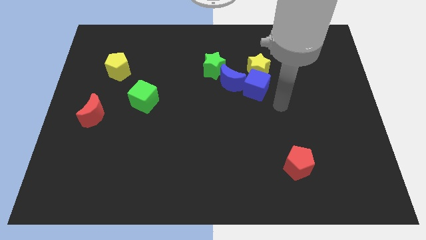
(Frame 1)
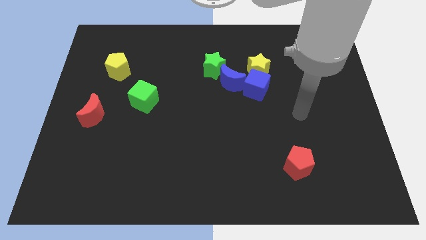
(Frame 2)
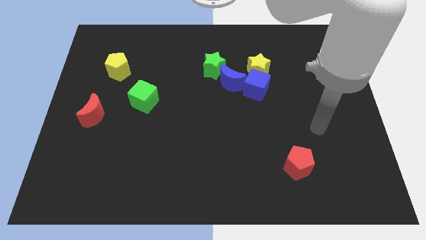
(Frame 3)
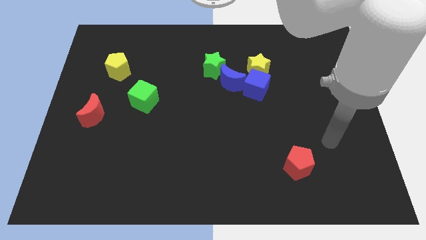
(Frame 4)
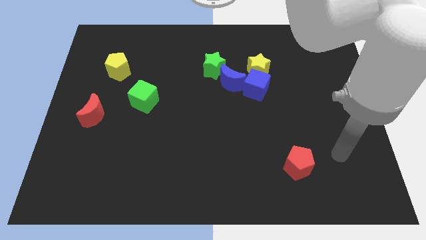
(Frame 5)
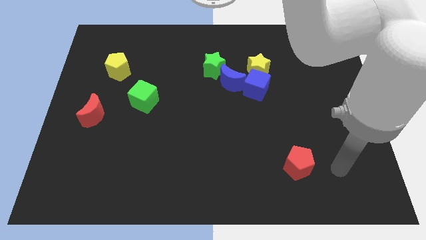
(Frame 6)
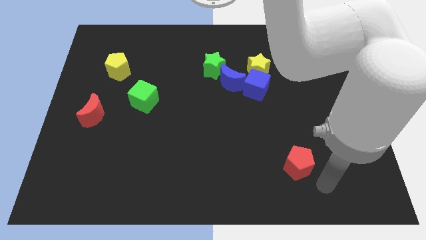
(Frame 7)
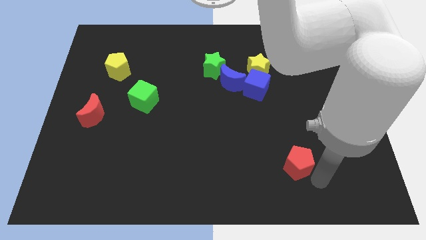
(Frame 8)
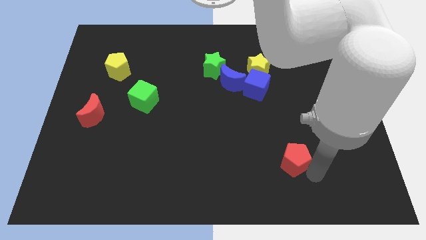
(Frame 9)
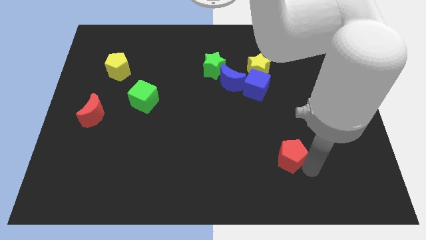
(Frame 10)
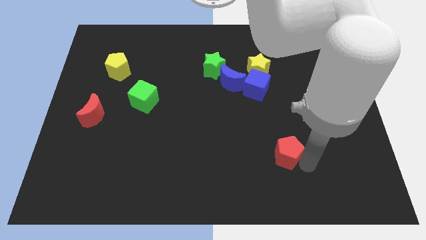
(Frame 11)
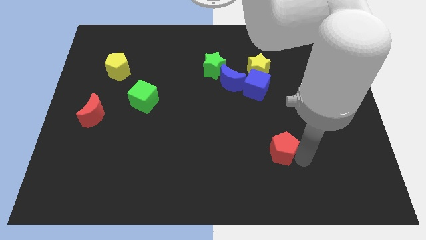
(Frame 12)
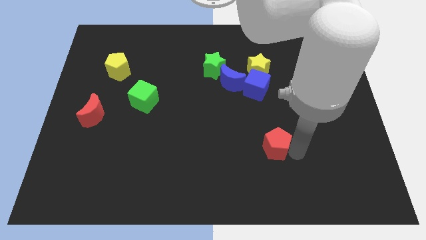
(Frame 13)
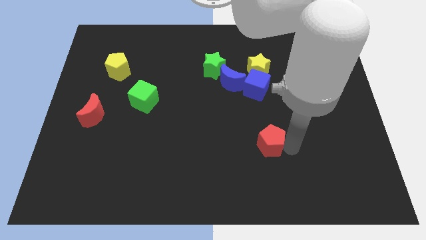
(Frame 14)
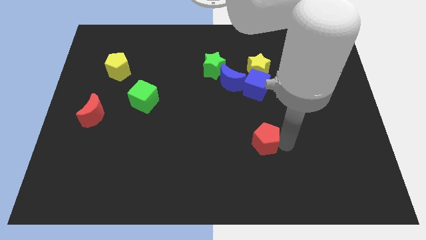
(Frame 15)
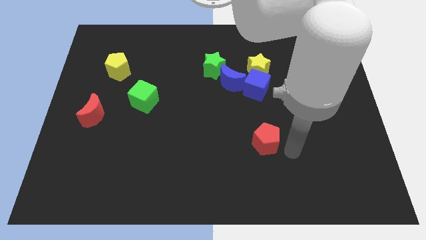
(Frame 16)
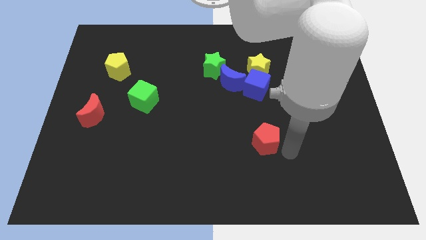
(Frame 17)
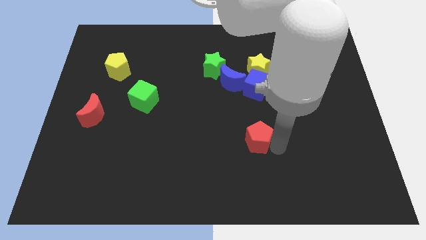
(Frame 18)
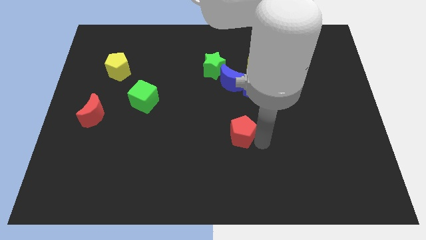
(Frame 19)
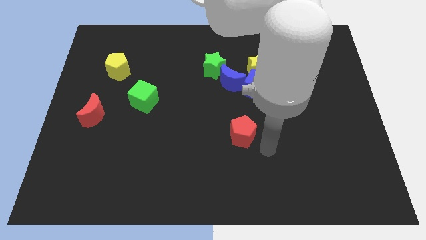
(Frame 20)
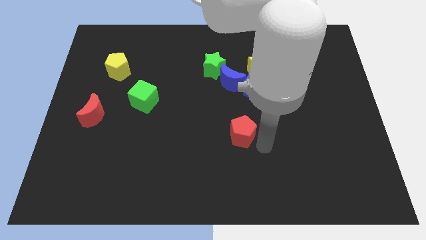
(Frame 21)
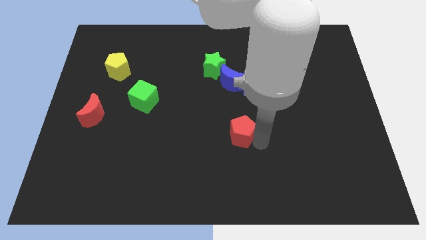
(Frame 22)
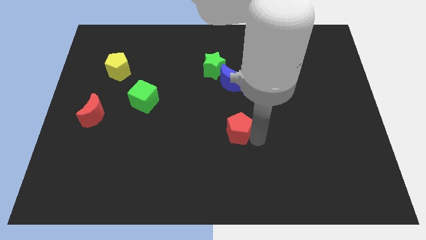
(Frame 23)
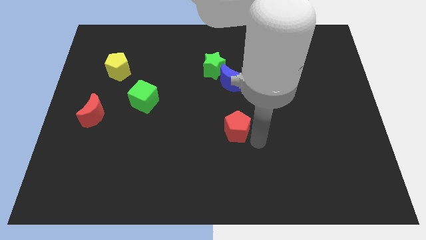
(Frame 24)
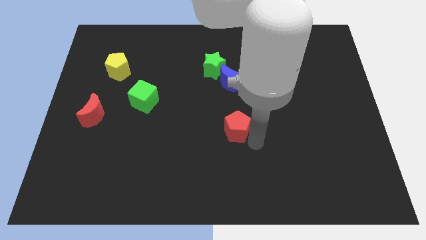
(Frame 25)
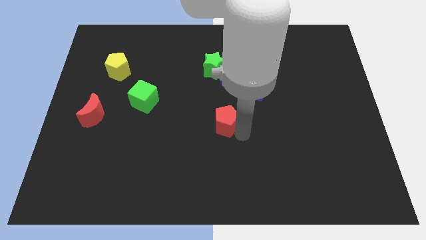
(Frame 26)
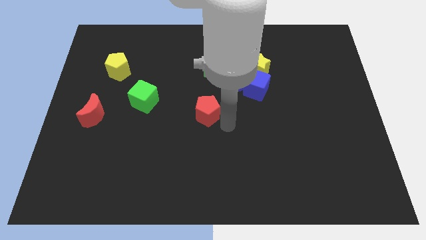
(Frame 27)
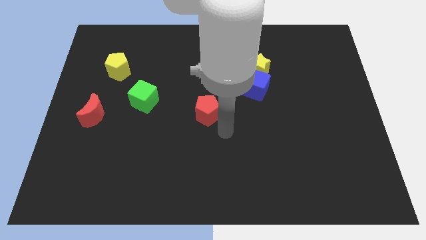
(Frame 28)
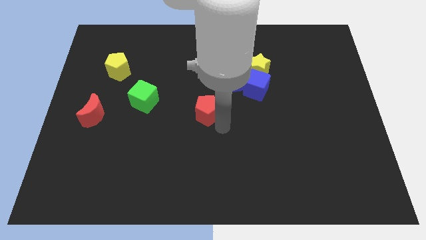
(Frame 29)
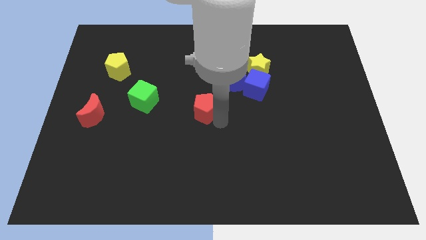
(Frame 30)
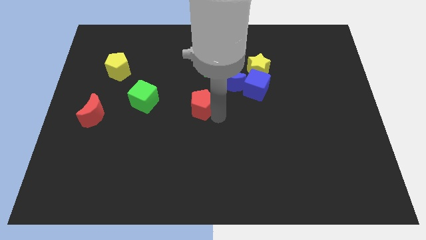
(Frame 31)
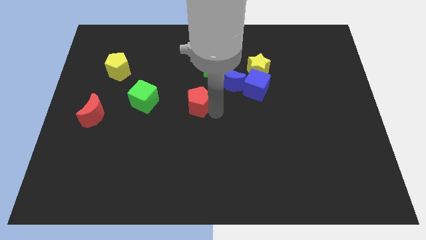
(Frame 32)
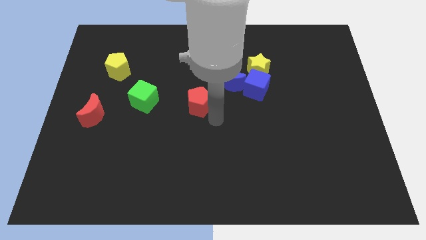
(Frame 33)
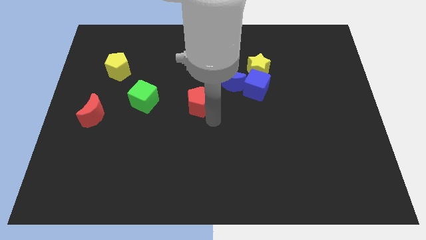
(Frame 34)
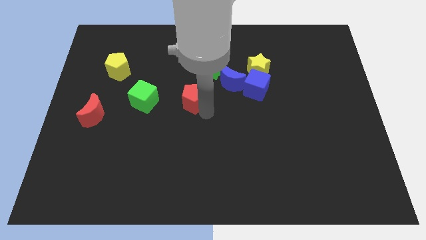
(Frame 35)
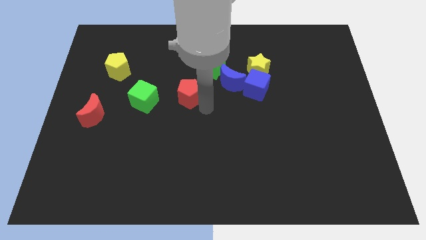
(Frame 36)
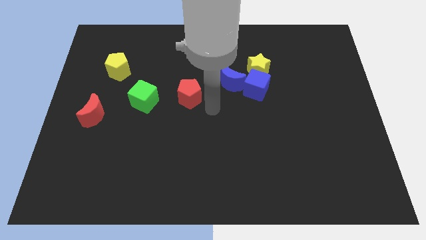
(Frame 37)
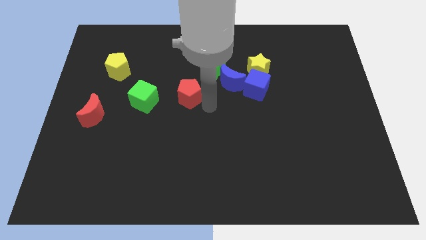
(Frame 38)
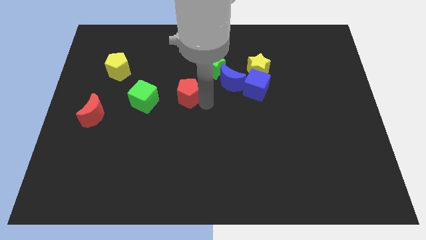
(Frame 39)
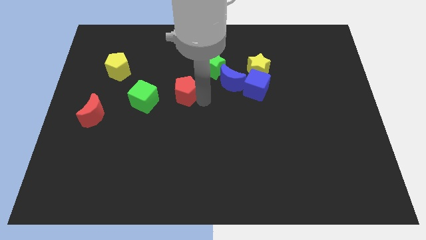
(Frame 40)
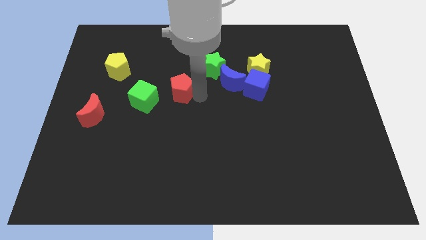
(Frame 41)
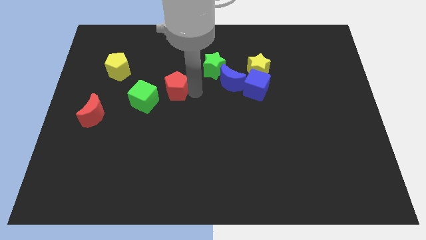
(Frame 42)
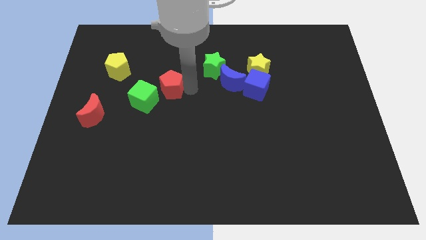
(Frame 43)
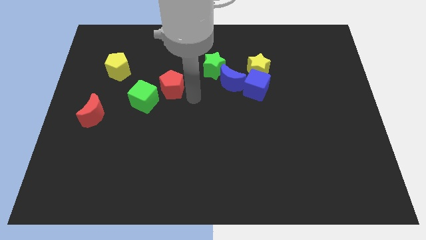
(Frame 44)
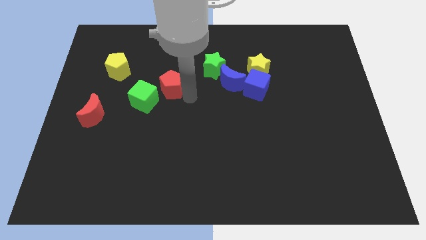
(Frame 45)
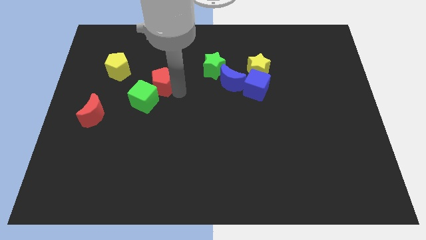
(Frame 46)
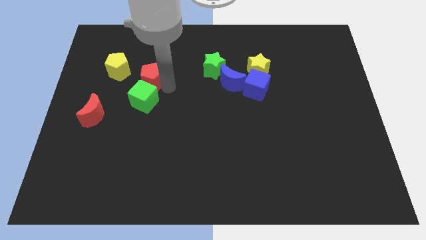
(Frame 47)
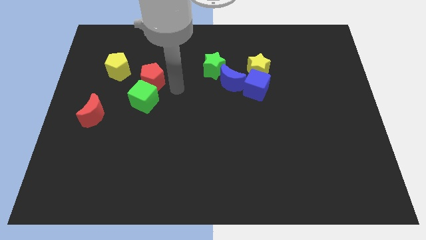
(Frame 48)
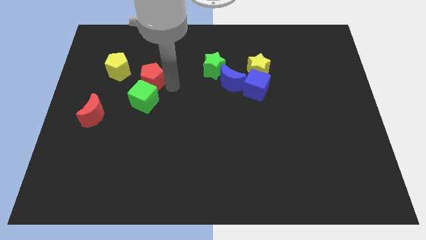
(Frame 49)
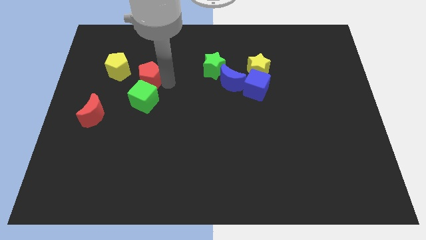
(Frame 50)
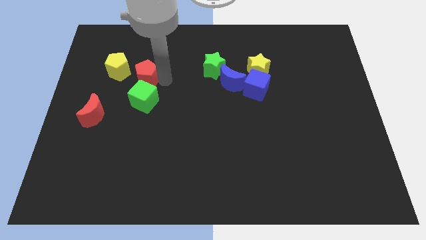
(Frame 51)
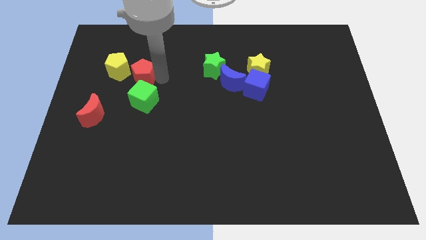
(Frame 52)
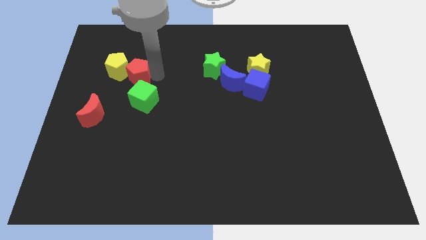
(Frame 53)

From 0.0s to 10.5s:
slide the red pentagon close to the yellow pentagon

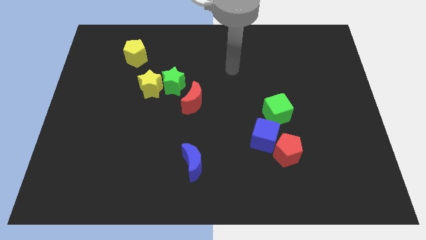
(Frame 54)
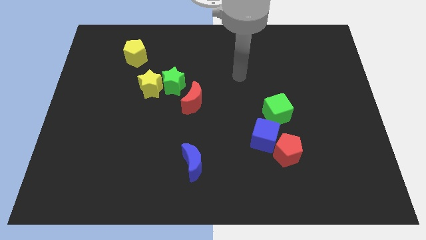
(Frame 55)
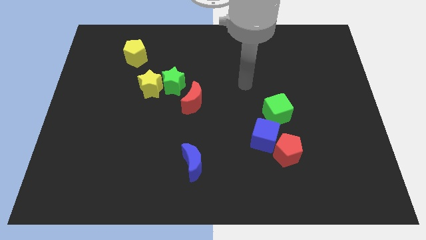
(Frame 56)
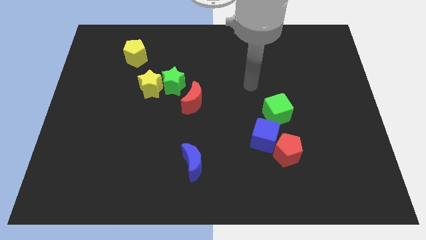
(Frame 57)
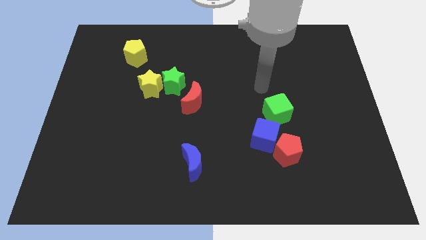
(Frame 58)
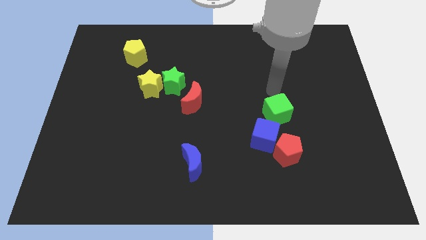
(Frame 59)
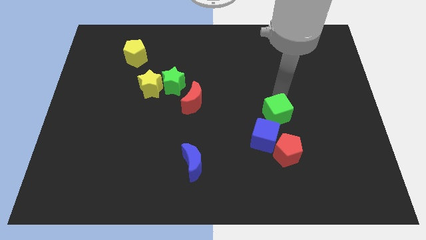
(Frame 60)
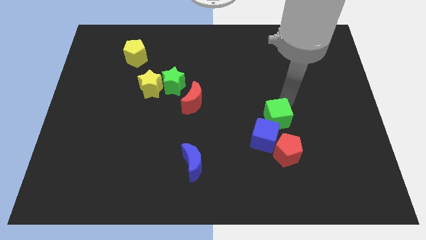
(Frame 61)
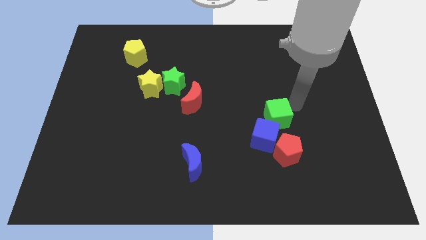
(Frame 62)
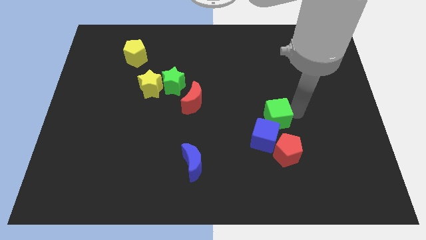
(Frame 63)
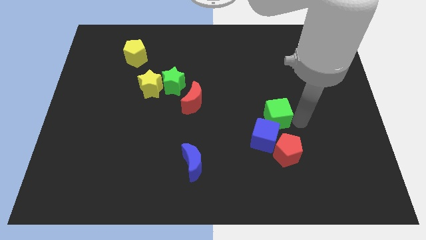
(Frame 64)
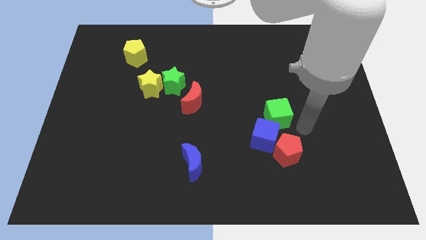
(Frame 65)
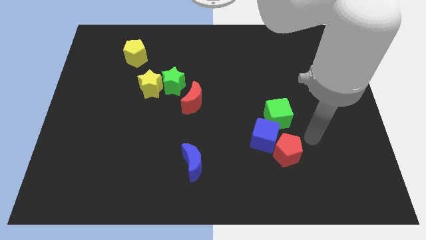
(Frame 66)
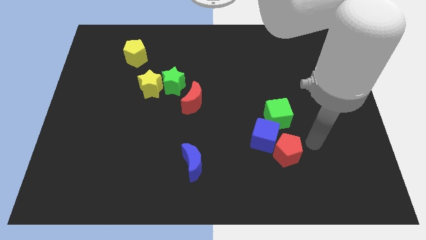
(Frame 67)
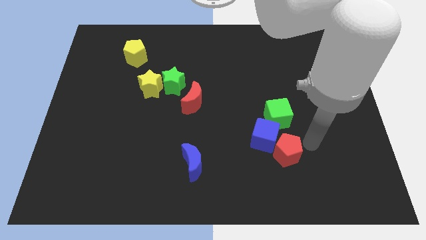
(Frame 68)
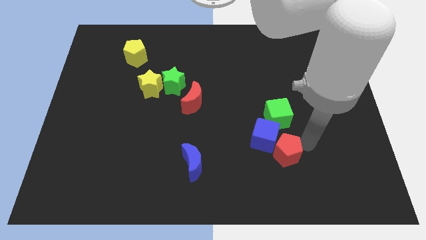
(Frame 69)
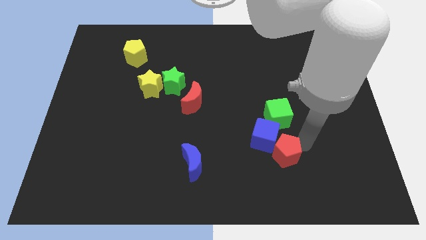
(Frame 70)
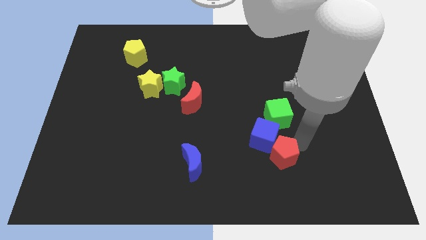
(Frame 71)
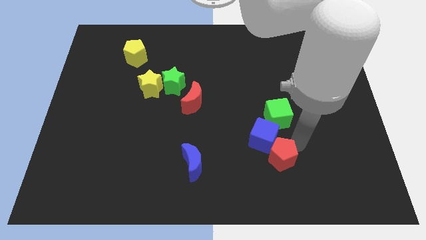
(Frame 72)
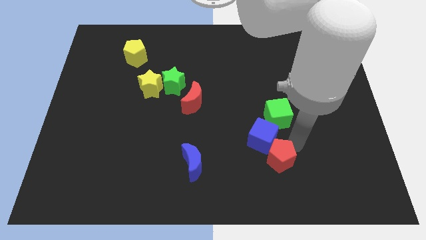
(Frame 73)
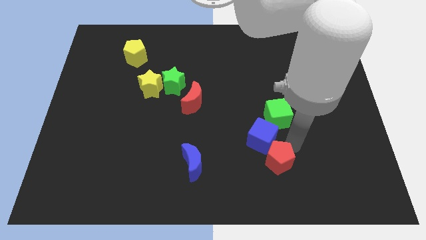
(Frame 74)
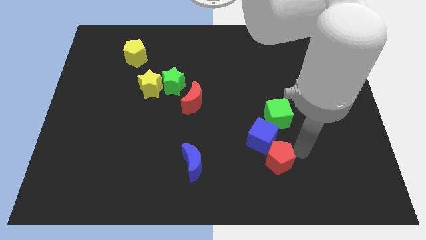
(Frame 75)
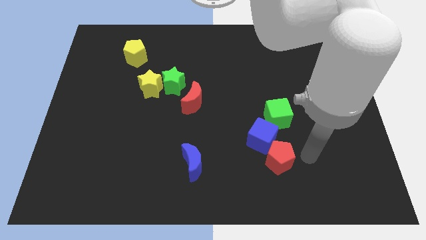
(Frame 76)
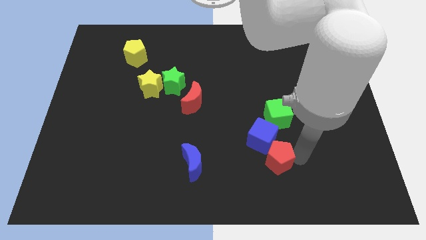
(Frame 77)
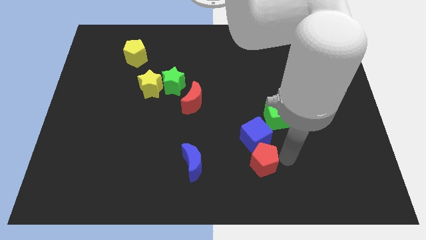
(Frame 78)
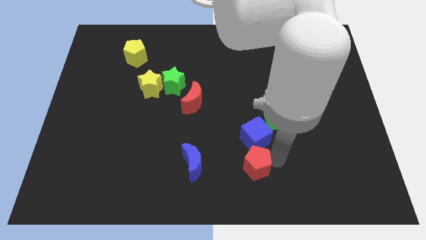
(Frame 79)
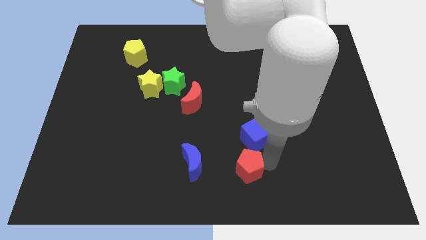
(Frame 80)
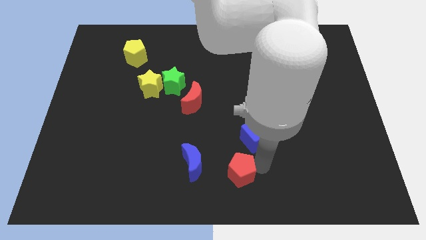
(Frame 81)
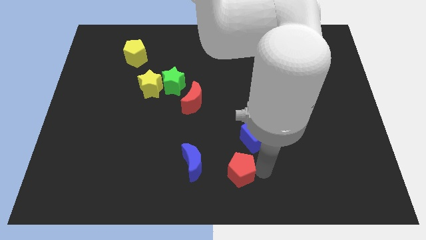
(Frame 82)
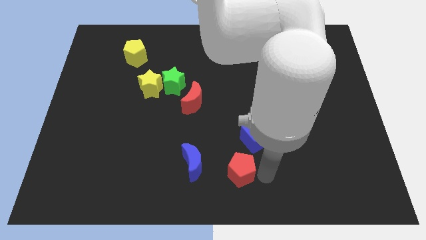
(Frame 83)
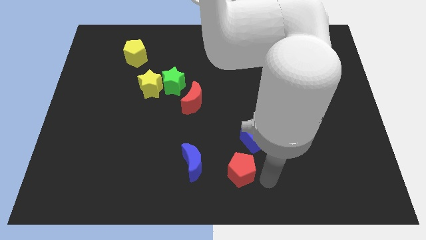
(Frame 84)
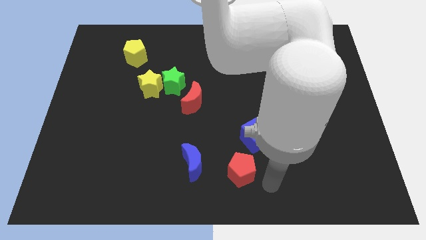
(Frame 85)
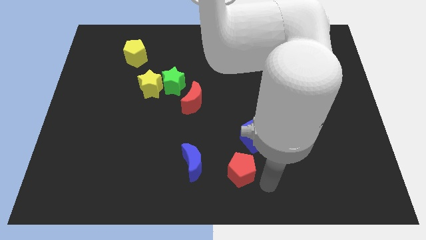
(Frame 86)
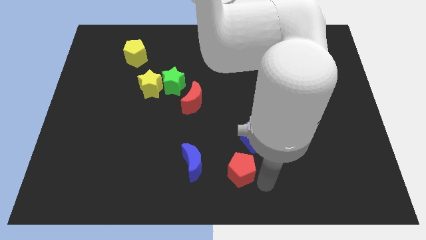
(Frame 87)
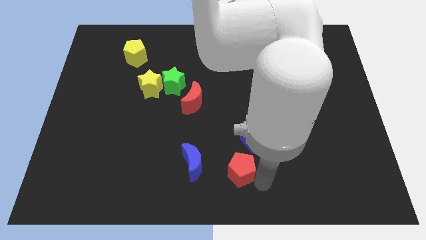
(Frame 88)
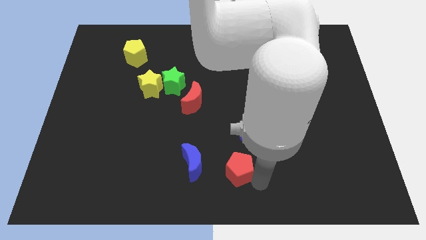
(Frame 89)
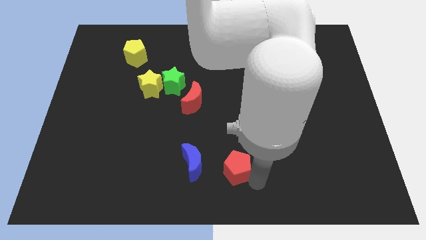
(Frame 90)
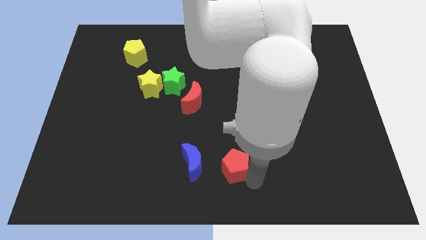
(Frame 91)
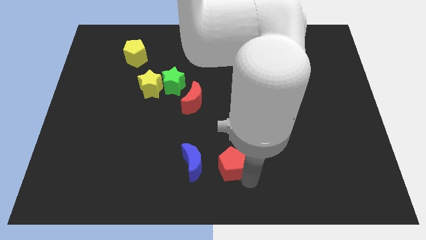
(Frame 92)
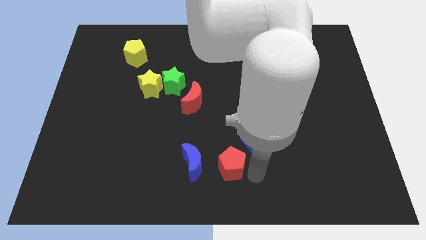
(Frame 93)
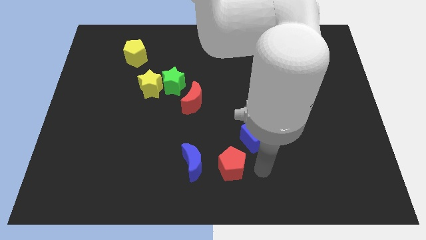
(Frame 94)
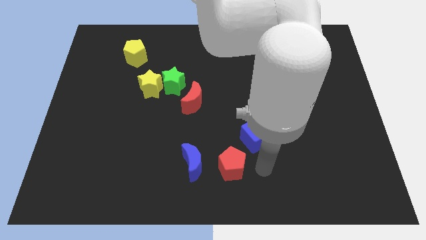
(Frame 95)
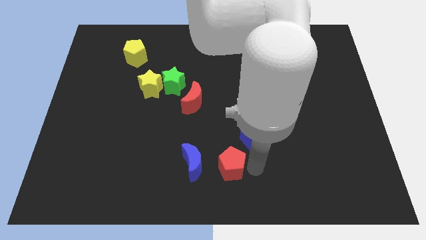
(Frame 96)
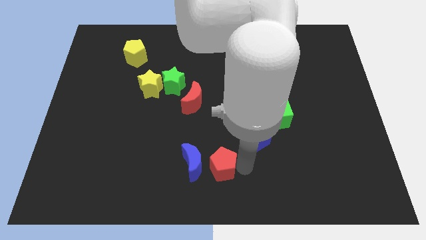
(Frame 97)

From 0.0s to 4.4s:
push the red pentagon close to the blue moon
